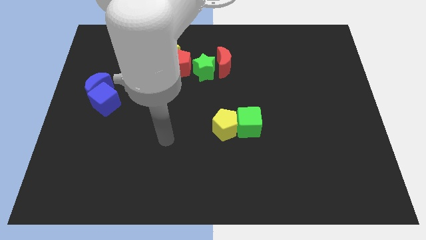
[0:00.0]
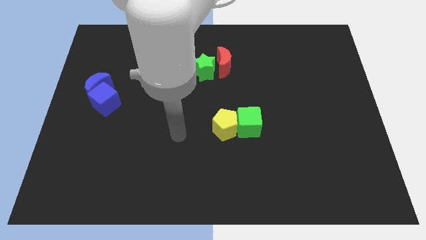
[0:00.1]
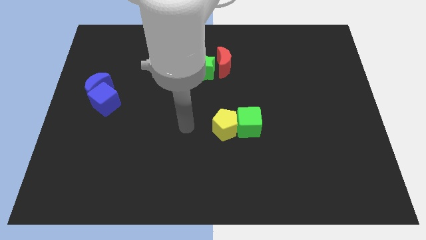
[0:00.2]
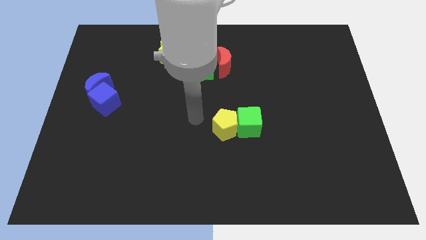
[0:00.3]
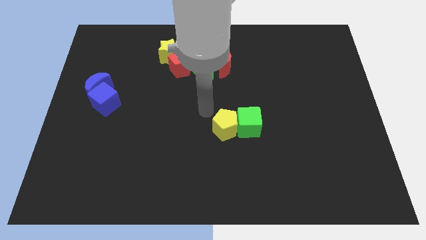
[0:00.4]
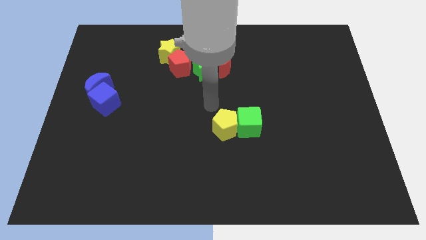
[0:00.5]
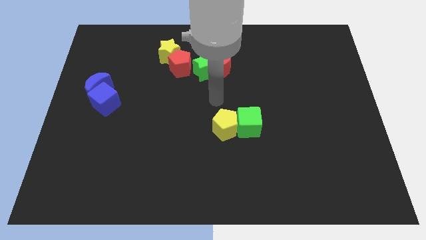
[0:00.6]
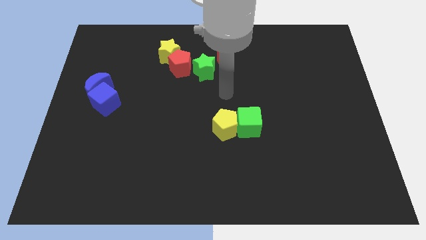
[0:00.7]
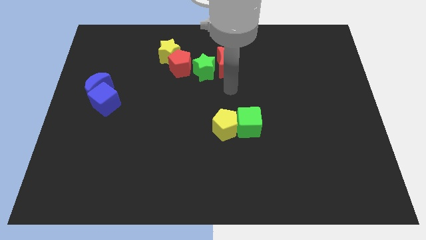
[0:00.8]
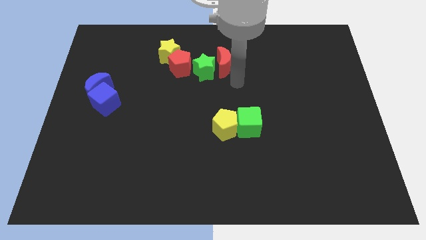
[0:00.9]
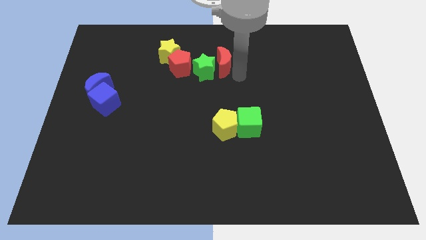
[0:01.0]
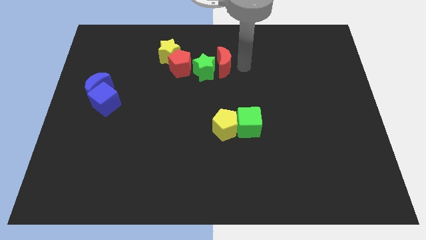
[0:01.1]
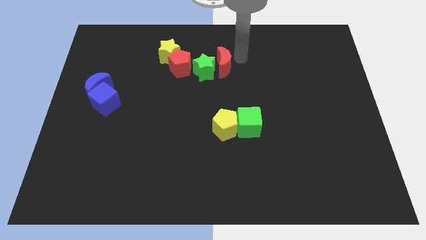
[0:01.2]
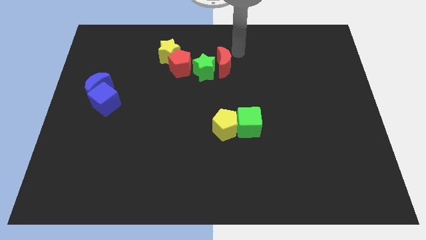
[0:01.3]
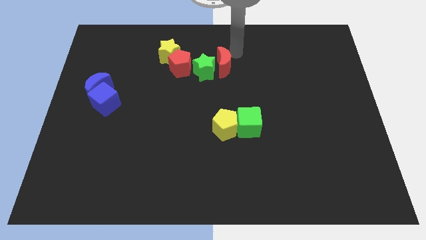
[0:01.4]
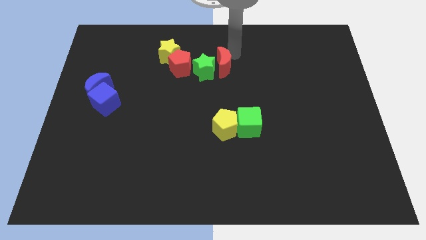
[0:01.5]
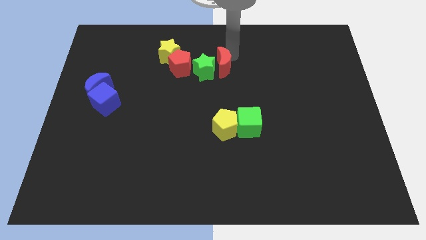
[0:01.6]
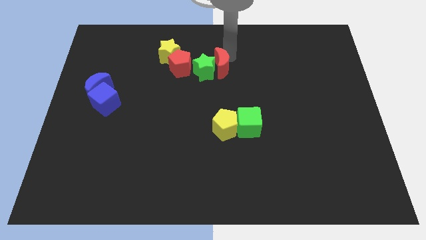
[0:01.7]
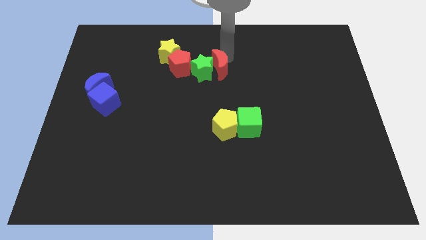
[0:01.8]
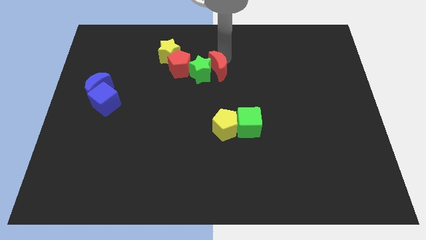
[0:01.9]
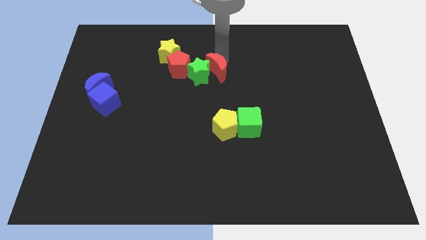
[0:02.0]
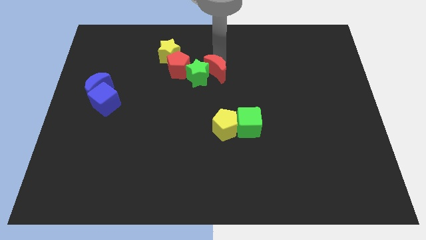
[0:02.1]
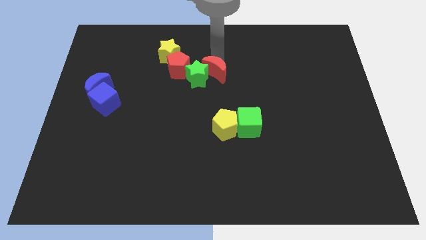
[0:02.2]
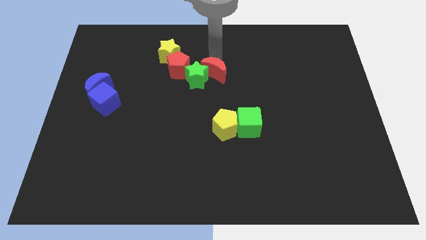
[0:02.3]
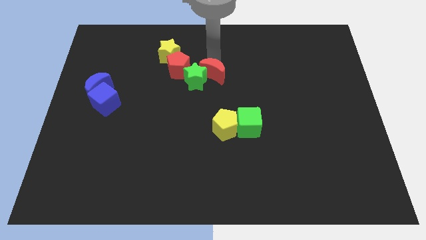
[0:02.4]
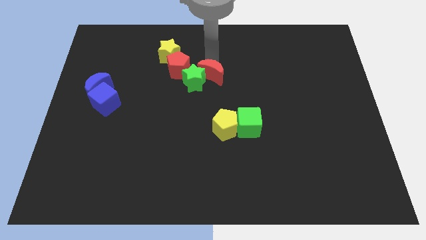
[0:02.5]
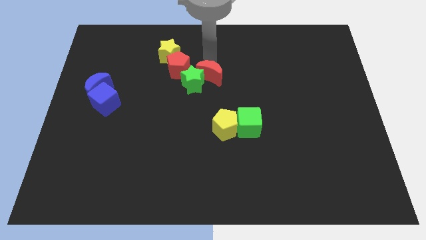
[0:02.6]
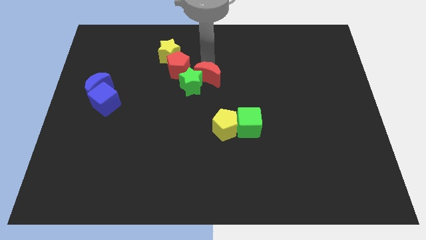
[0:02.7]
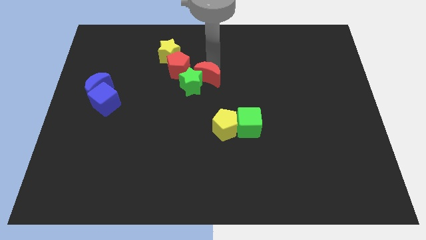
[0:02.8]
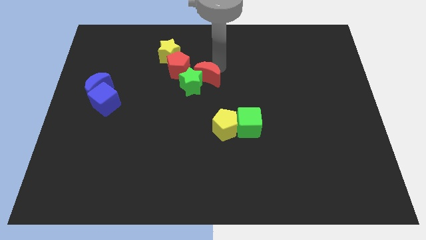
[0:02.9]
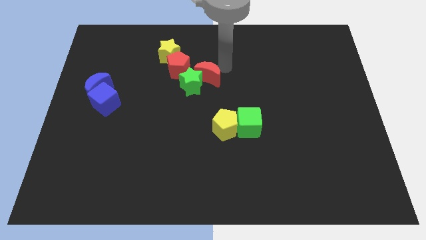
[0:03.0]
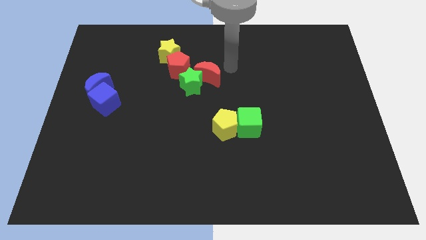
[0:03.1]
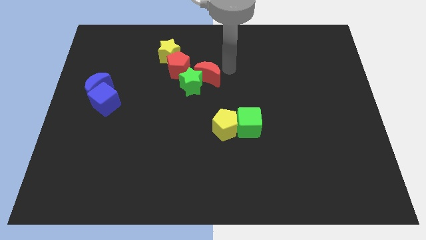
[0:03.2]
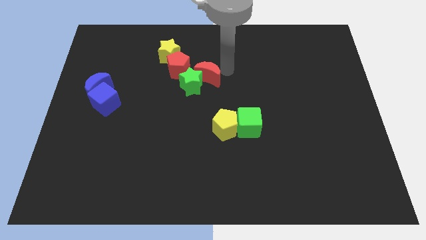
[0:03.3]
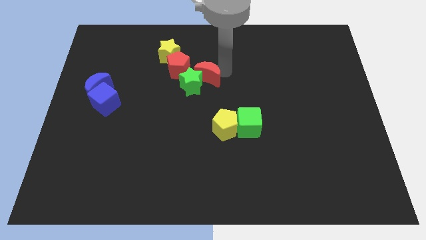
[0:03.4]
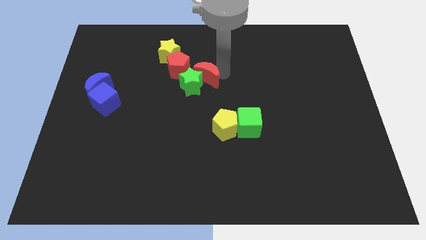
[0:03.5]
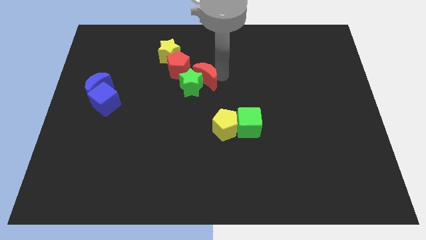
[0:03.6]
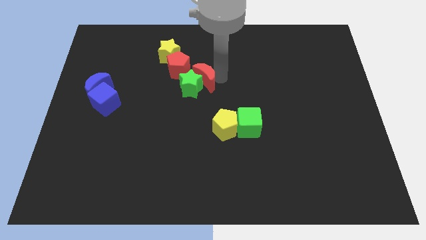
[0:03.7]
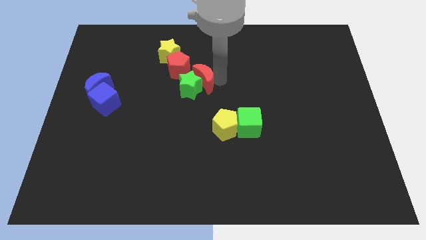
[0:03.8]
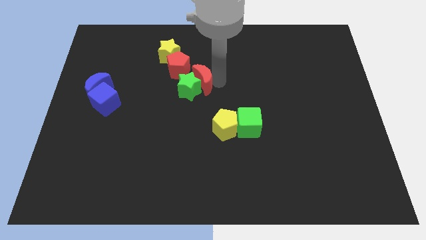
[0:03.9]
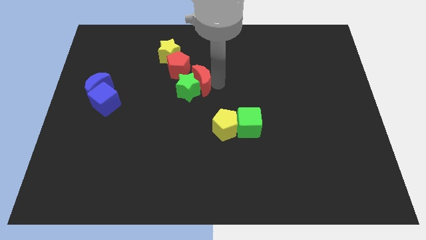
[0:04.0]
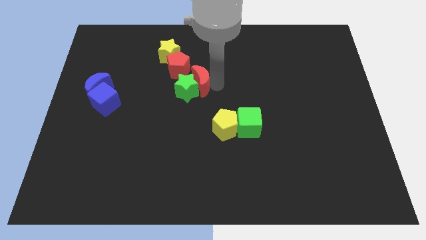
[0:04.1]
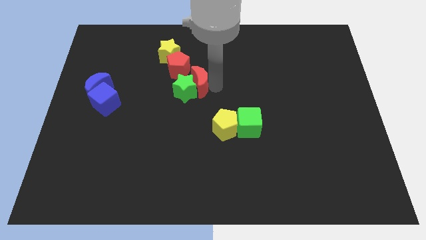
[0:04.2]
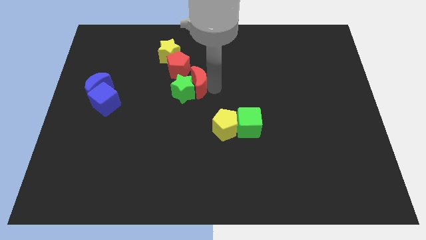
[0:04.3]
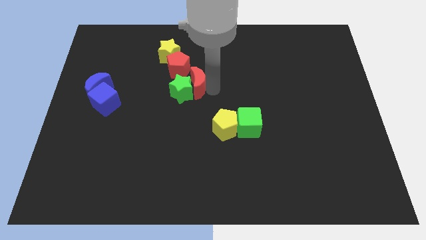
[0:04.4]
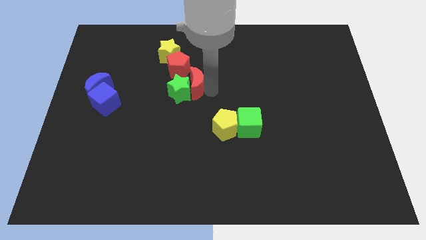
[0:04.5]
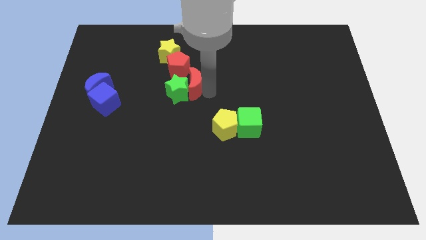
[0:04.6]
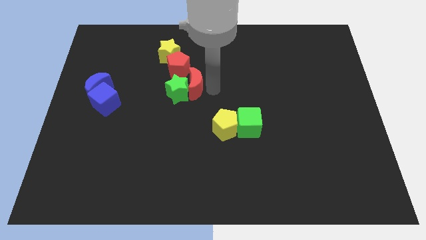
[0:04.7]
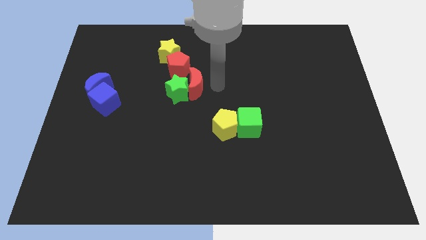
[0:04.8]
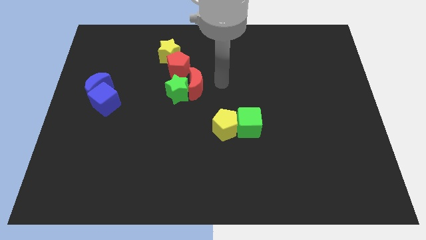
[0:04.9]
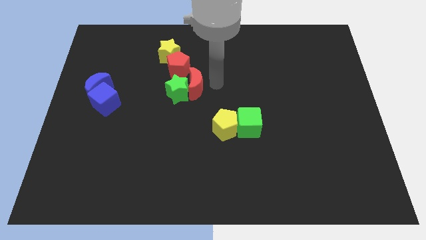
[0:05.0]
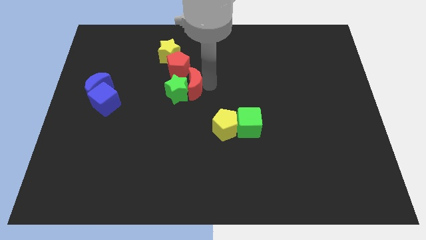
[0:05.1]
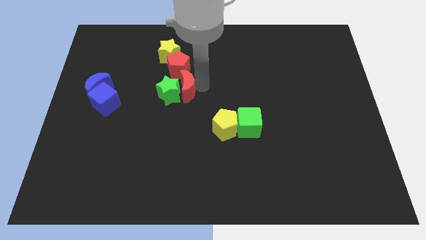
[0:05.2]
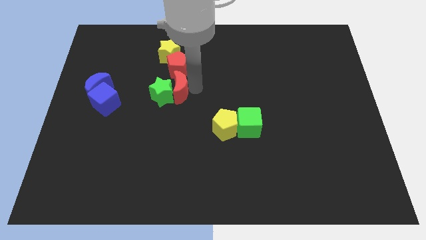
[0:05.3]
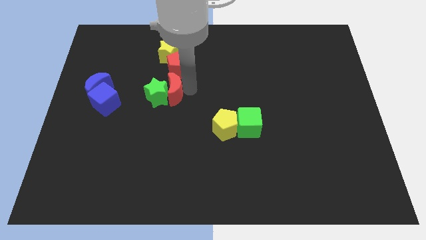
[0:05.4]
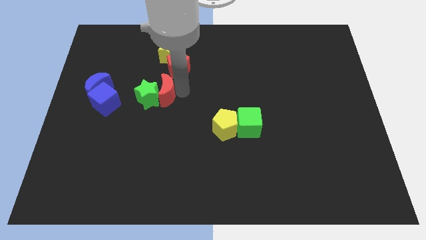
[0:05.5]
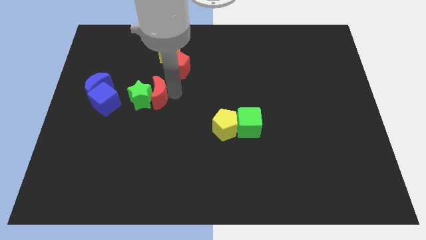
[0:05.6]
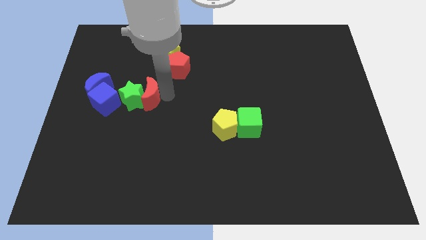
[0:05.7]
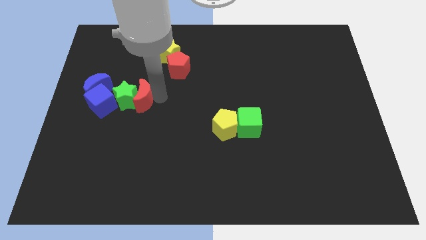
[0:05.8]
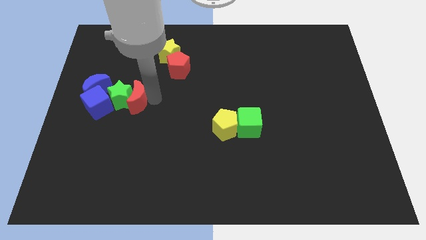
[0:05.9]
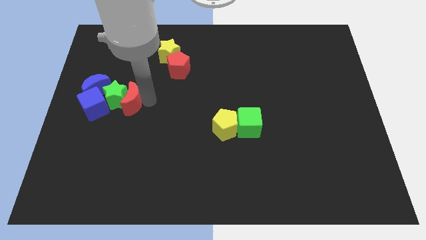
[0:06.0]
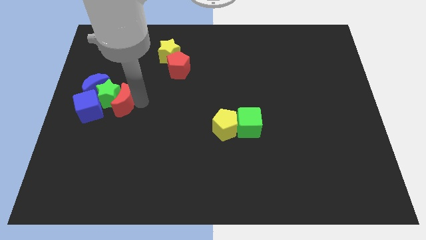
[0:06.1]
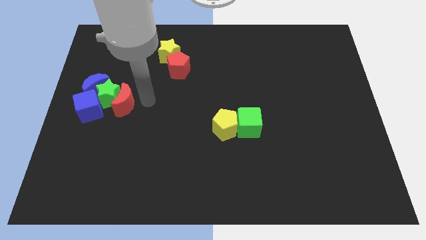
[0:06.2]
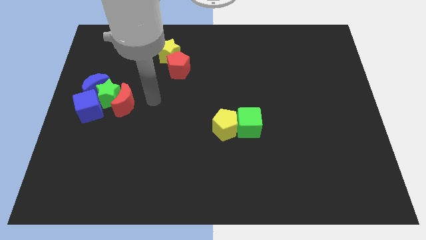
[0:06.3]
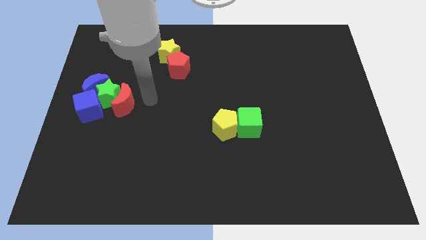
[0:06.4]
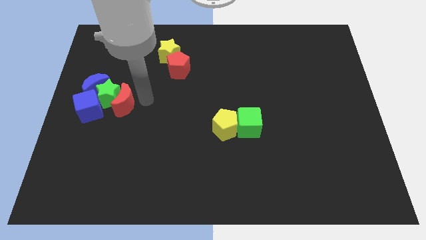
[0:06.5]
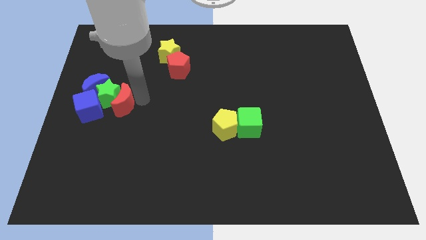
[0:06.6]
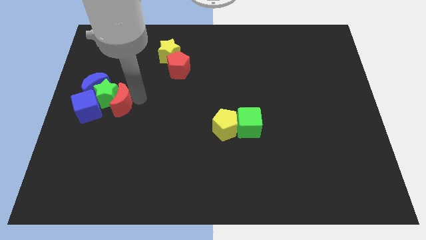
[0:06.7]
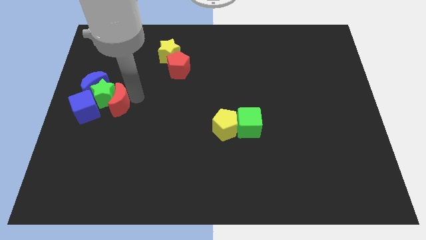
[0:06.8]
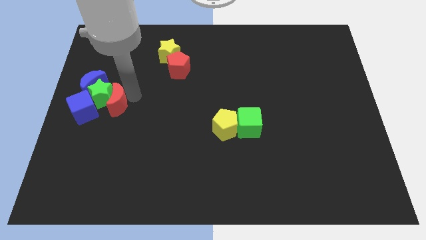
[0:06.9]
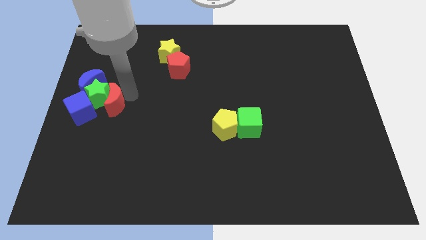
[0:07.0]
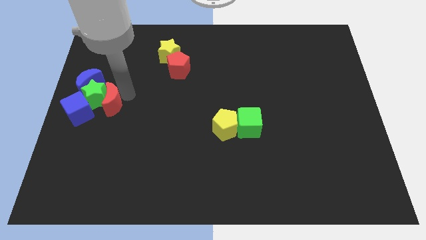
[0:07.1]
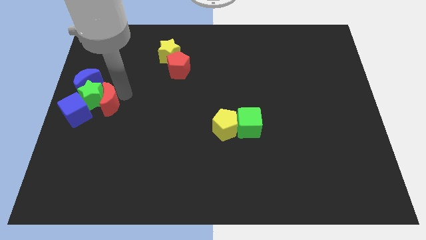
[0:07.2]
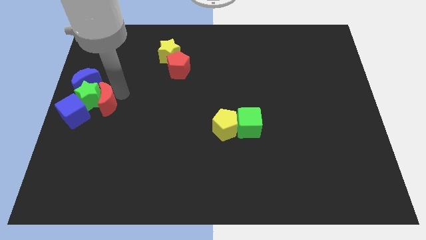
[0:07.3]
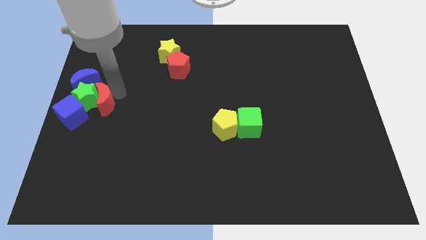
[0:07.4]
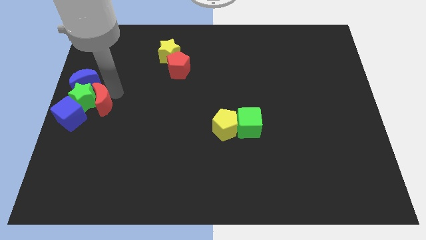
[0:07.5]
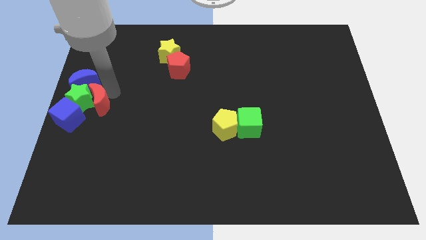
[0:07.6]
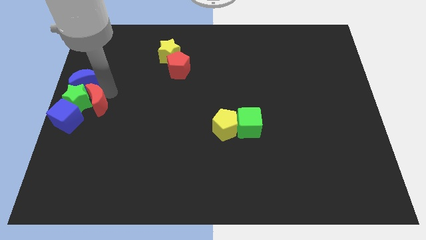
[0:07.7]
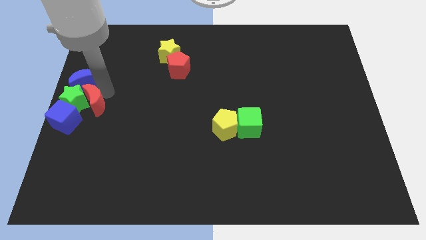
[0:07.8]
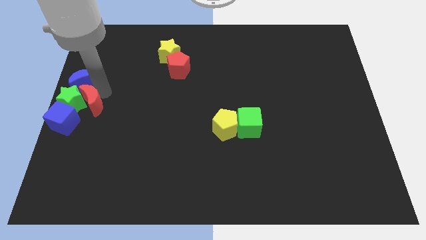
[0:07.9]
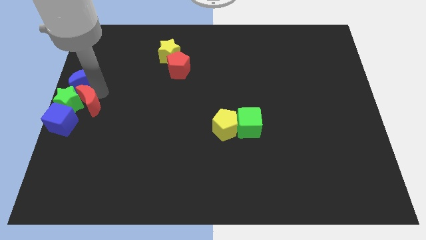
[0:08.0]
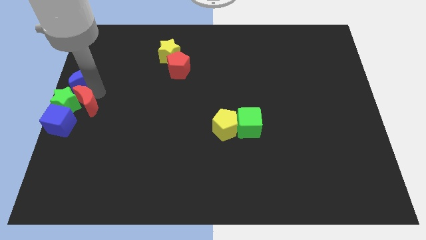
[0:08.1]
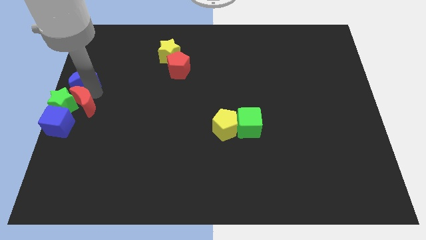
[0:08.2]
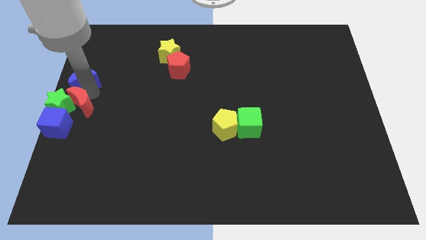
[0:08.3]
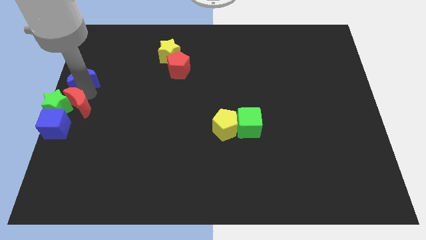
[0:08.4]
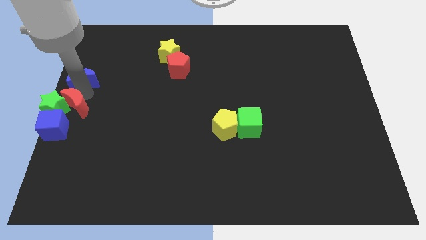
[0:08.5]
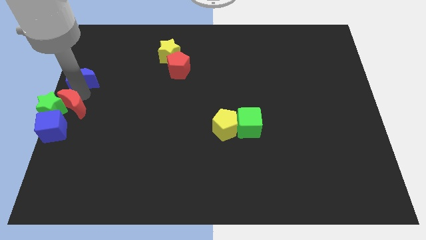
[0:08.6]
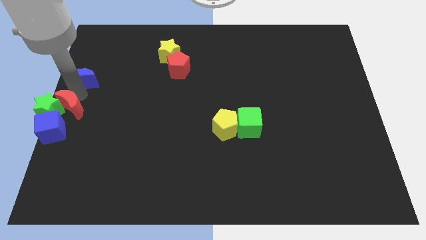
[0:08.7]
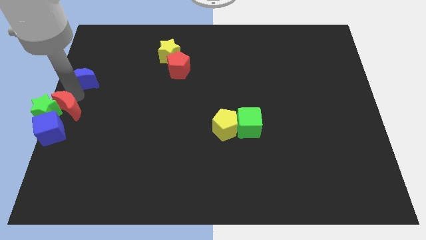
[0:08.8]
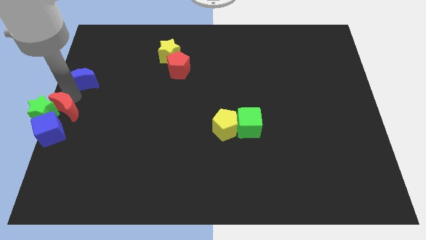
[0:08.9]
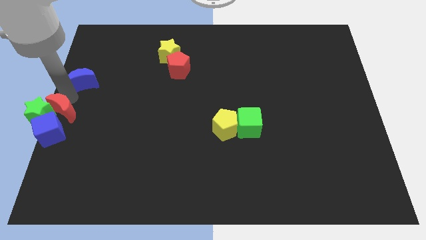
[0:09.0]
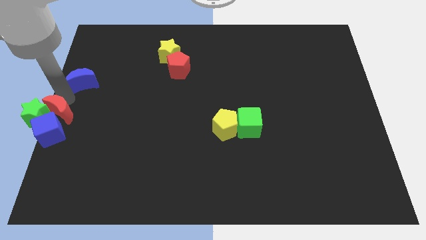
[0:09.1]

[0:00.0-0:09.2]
push the red moon close to the blue cube
